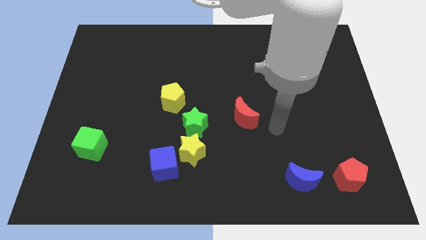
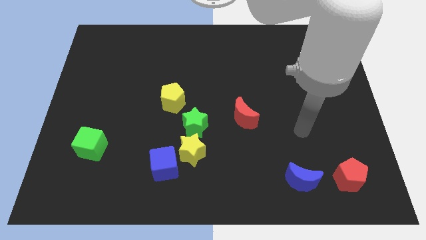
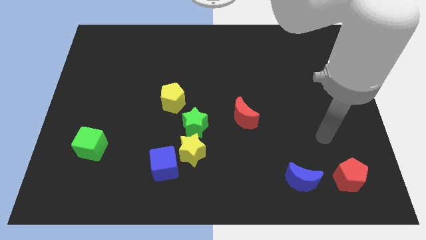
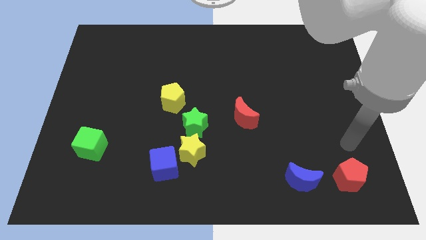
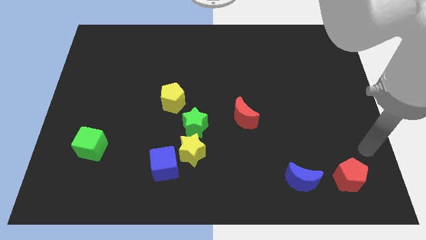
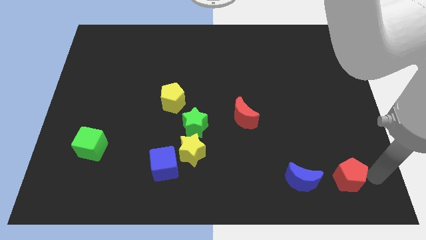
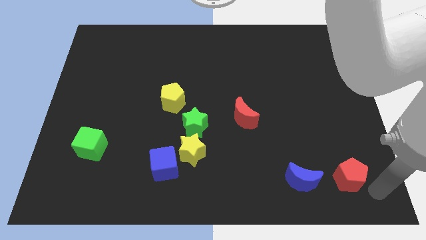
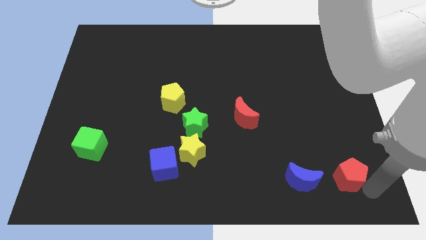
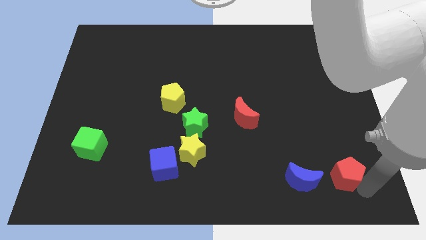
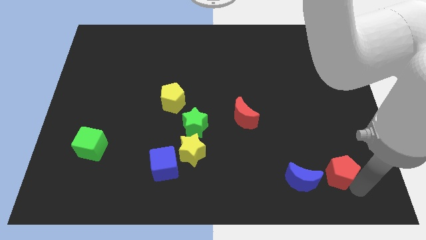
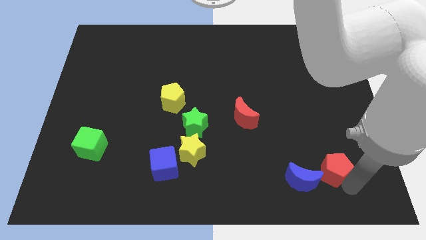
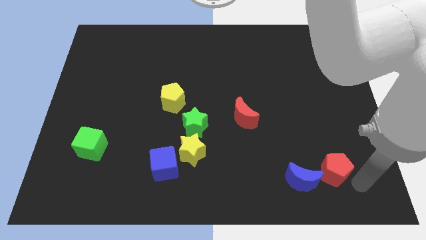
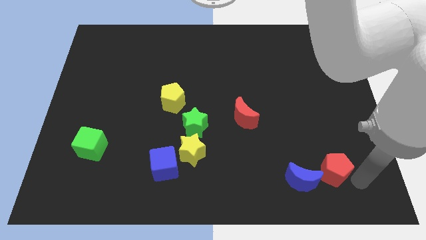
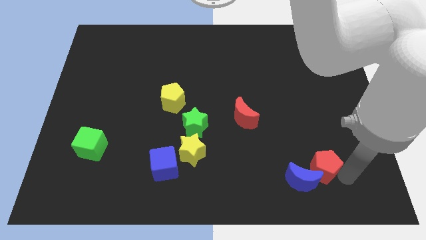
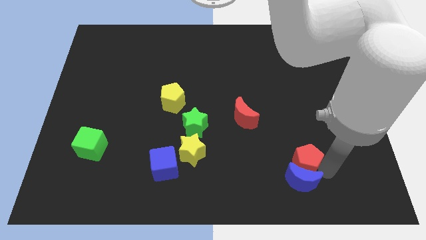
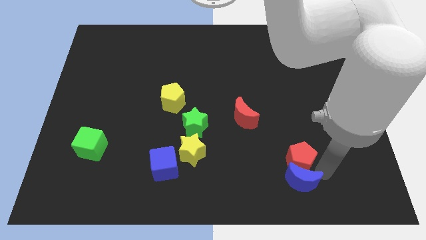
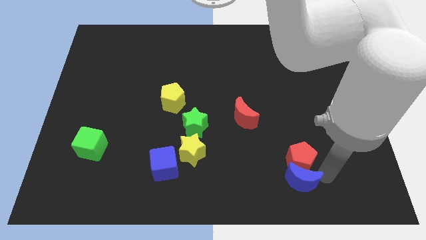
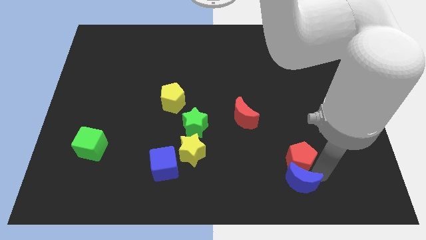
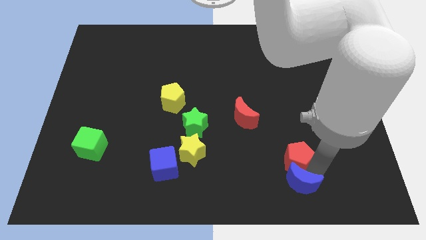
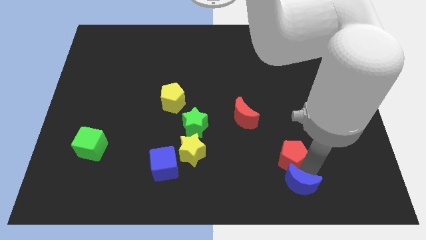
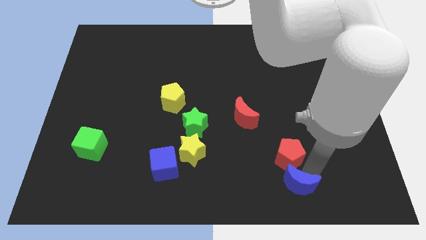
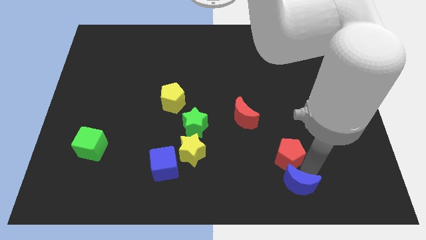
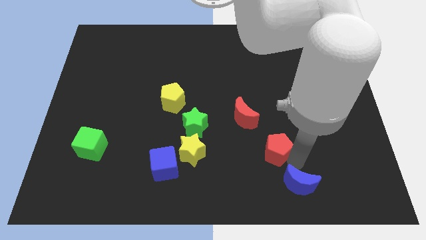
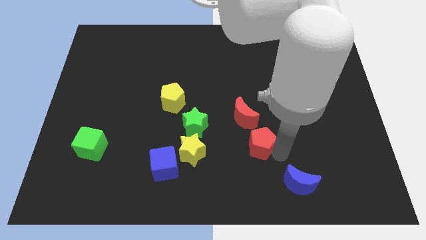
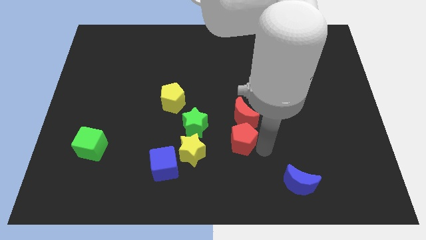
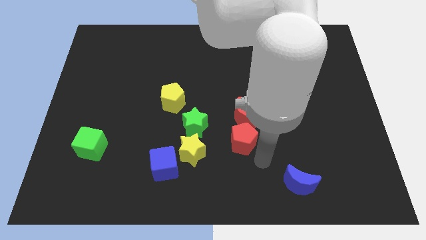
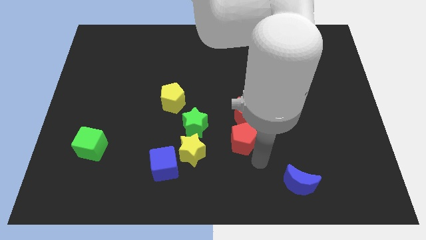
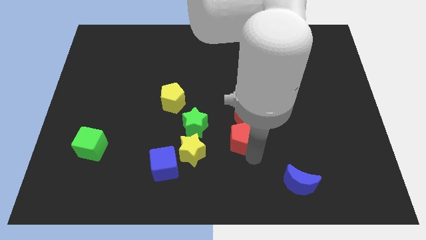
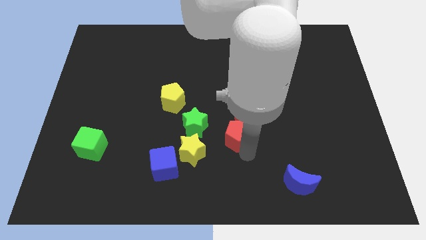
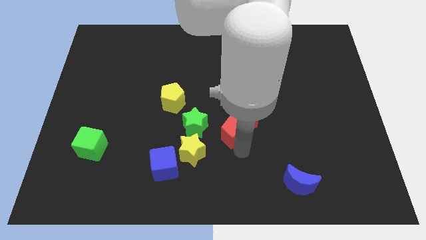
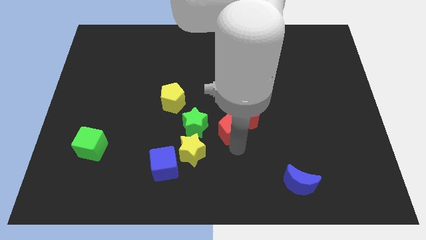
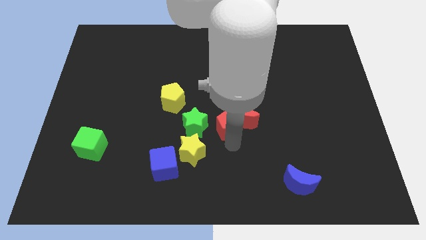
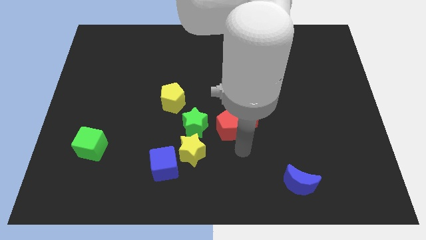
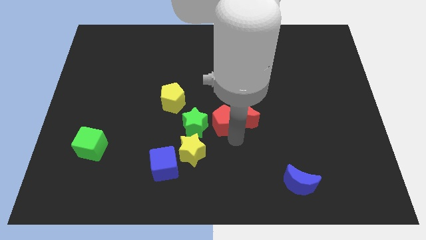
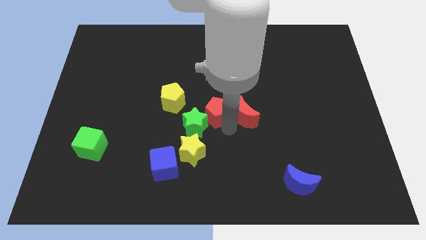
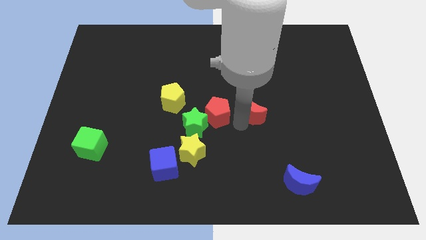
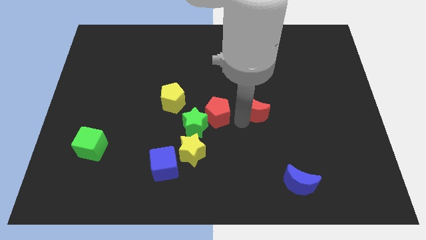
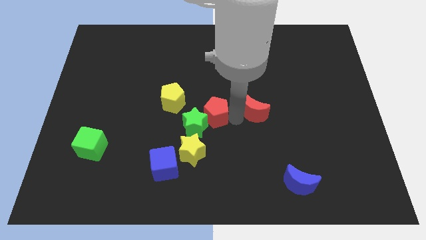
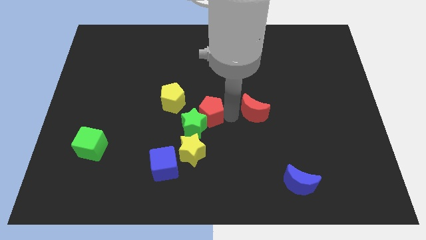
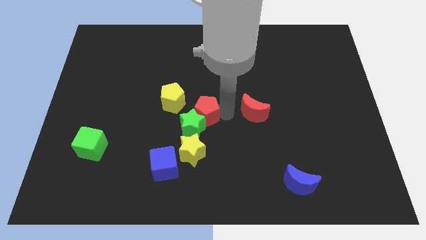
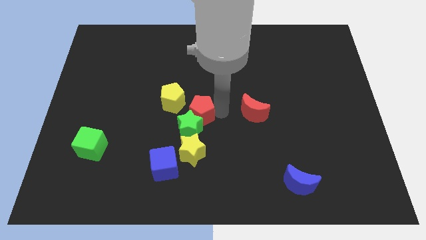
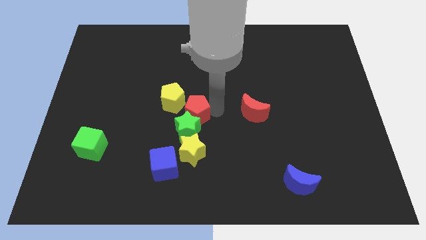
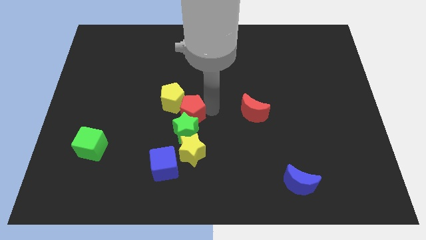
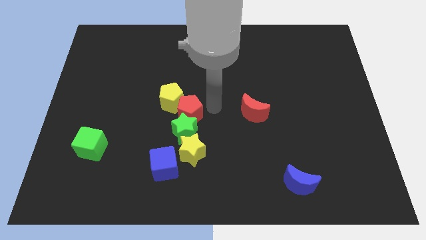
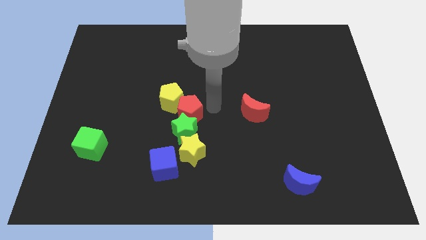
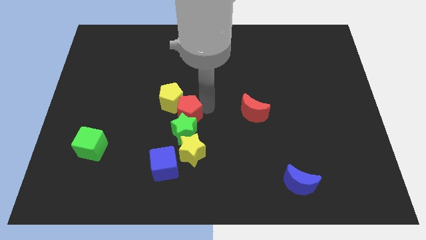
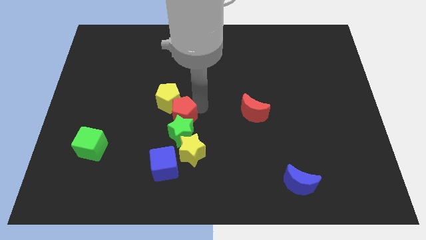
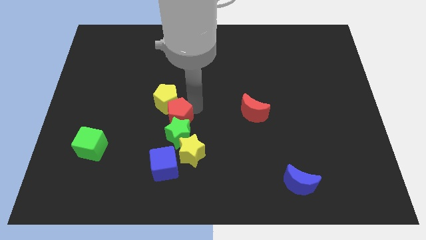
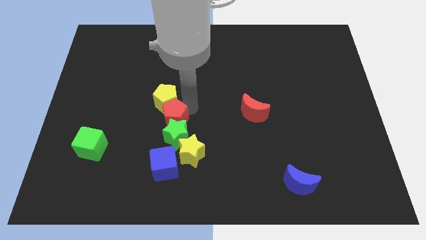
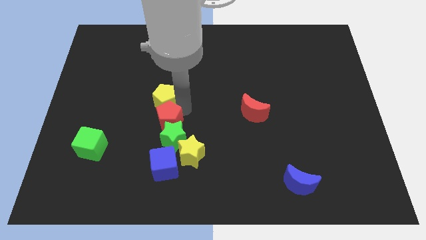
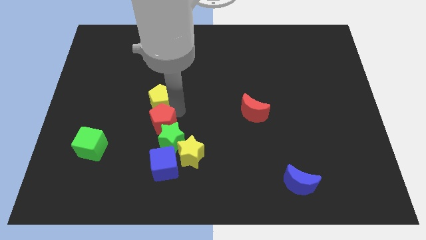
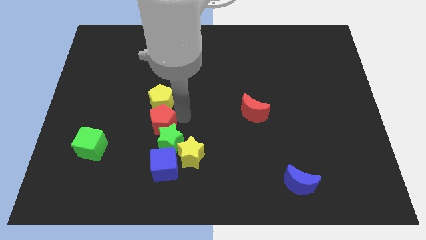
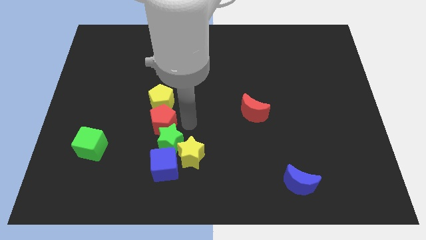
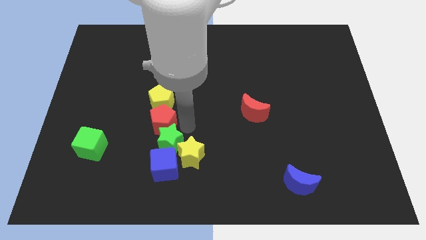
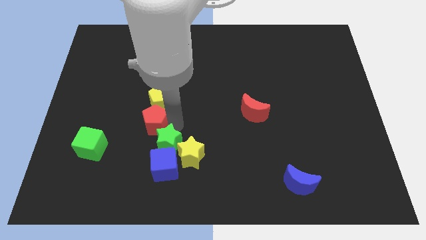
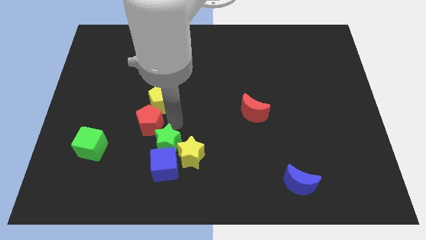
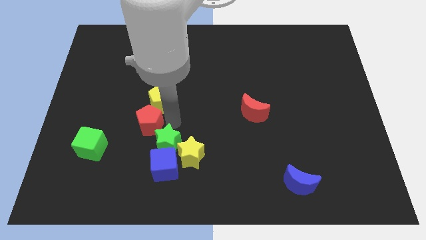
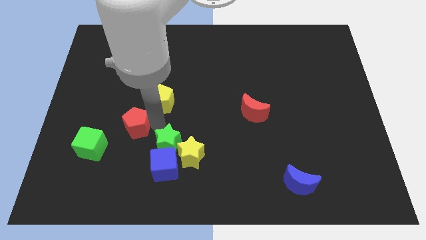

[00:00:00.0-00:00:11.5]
move the red pentagon diagonally up and to the right of the green cube

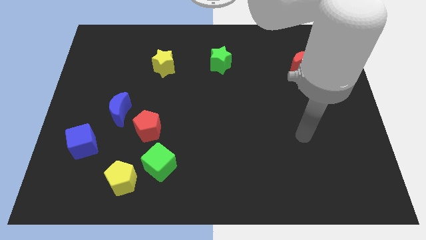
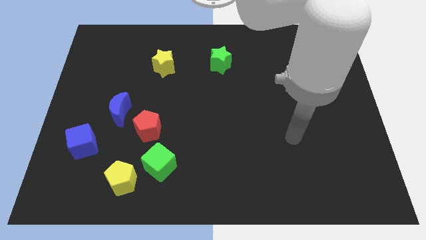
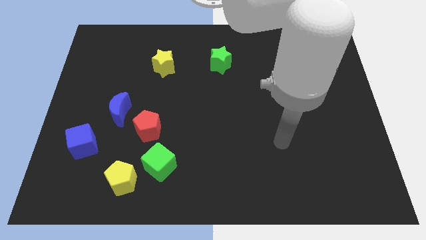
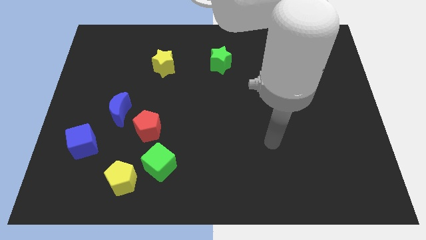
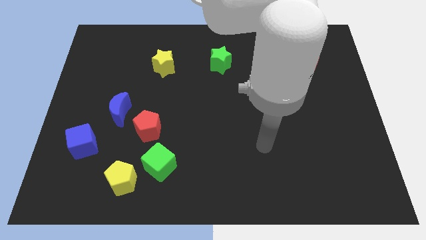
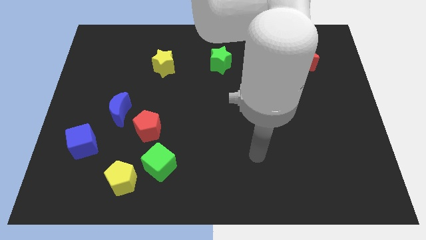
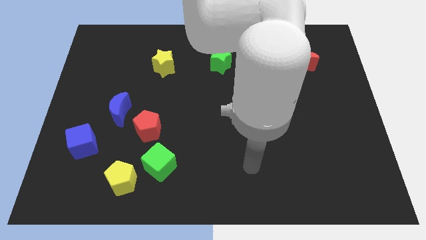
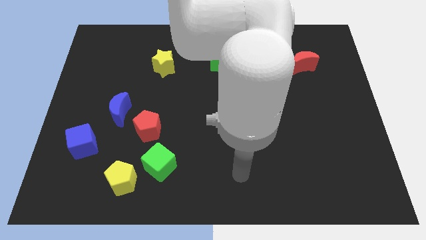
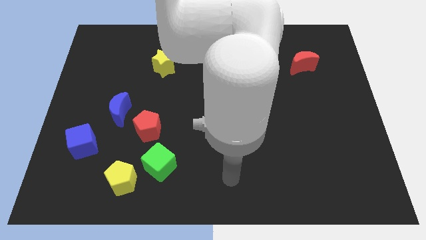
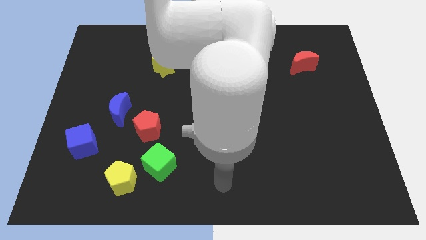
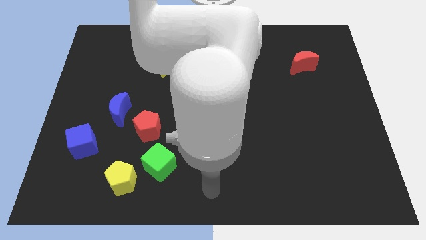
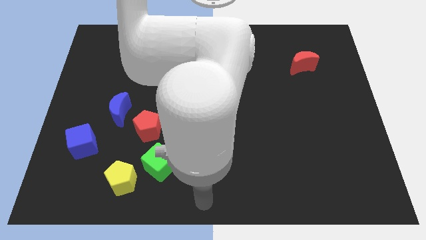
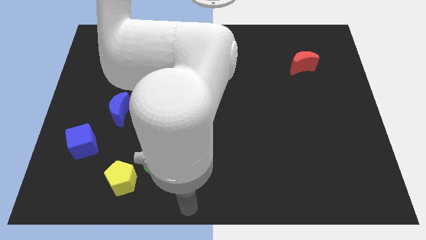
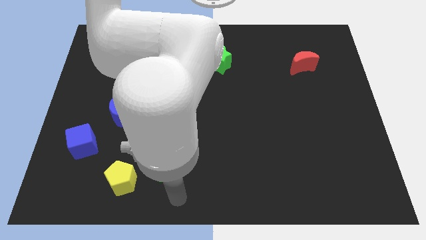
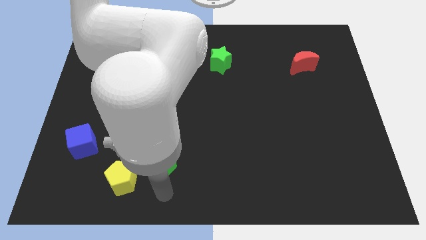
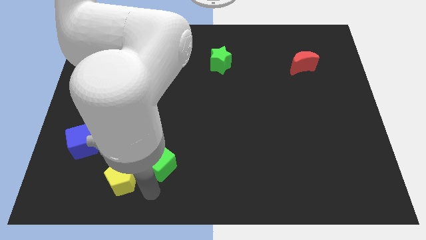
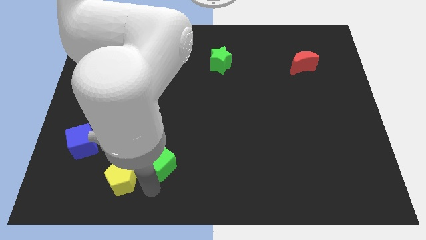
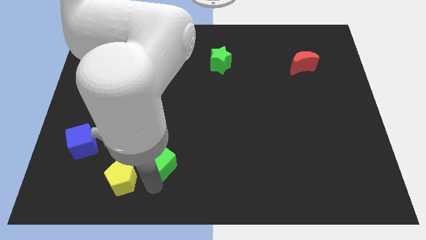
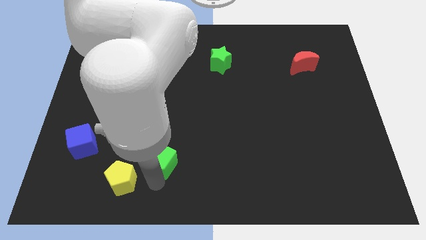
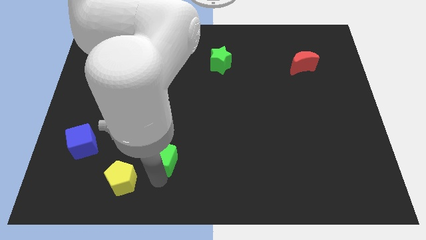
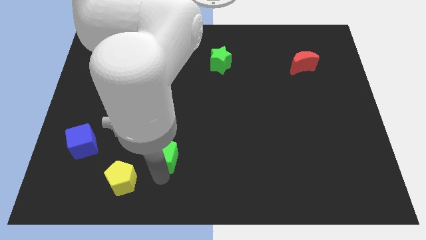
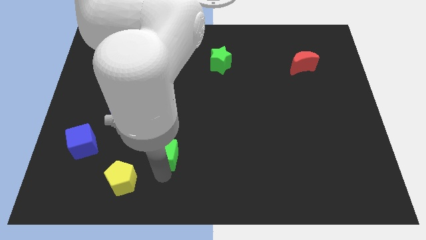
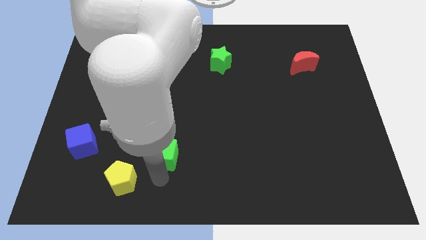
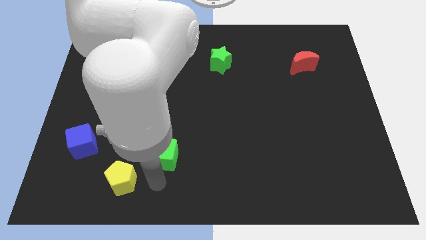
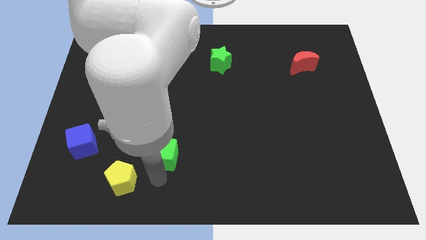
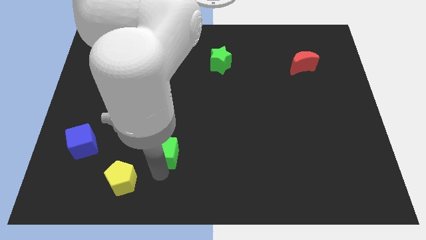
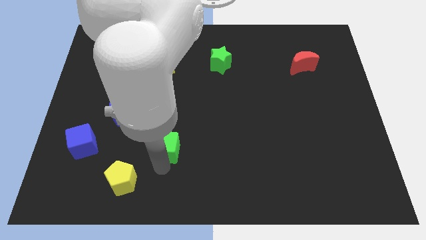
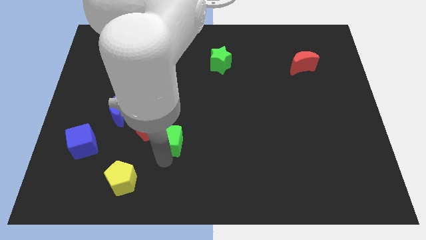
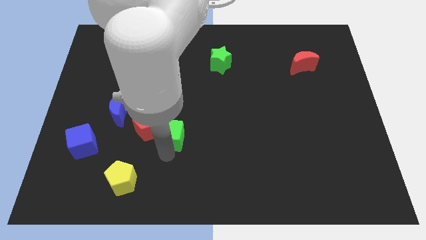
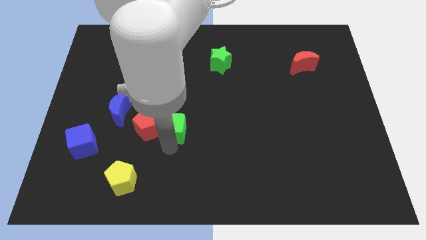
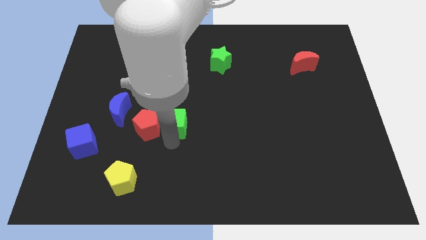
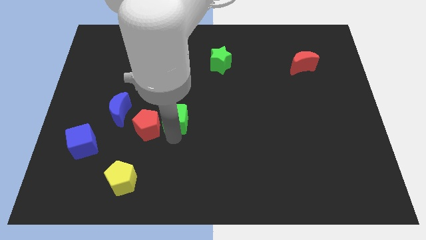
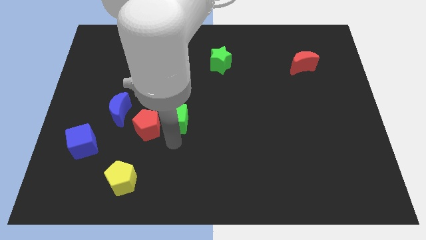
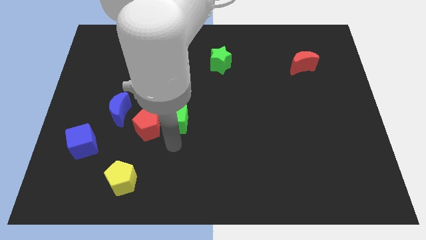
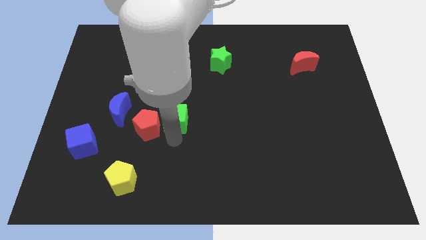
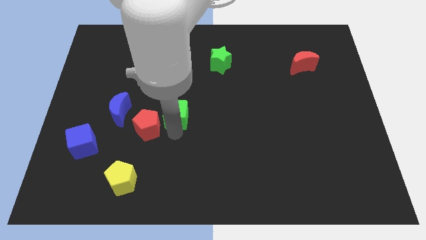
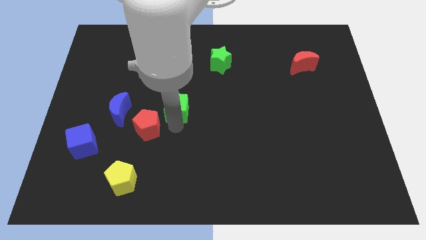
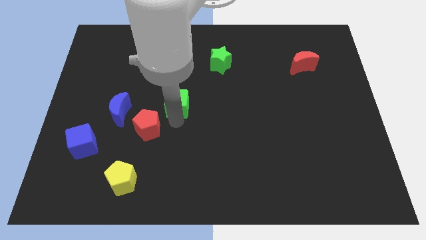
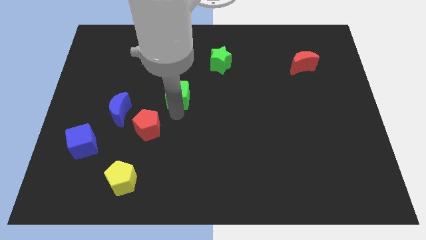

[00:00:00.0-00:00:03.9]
move the green cube diagonally down and to the right of the yellow star
